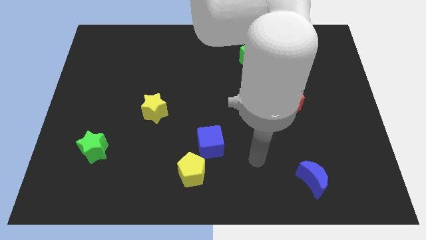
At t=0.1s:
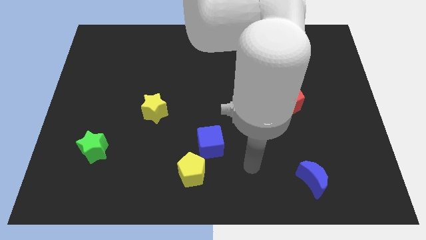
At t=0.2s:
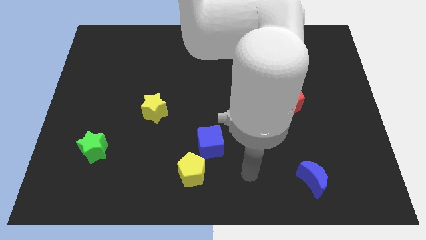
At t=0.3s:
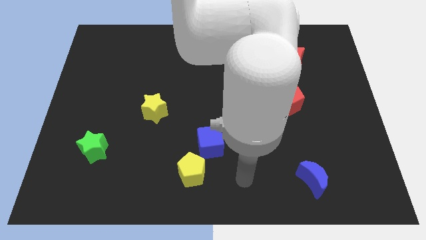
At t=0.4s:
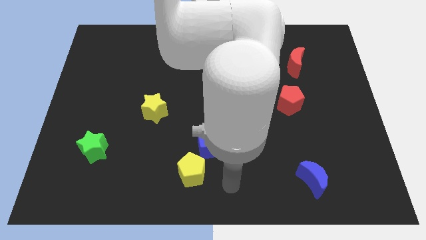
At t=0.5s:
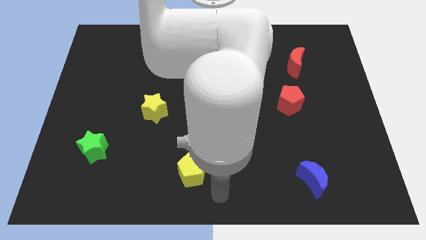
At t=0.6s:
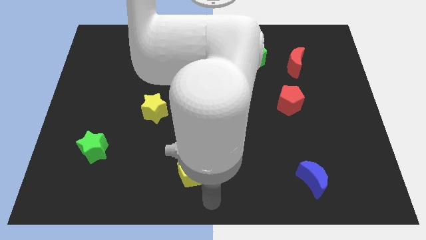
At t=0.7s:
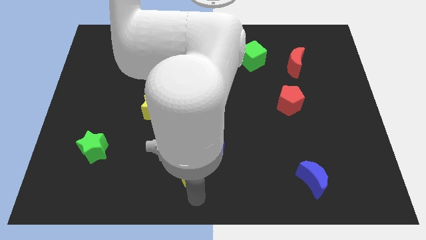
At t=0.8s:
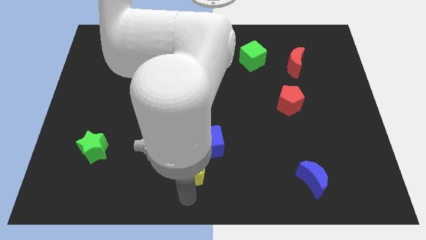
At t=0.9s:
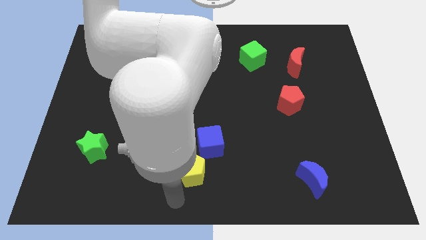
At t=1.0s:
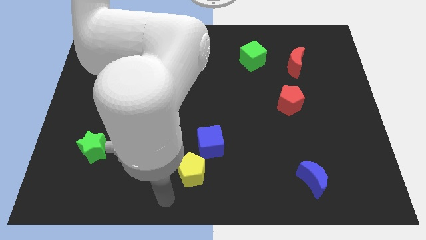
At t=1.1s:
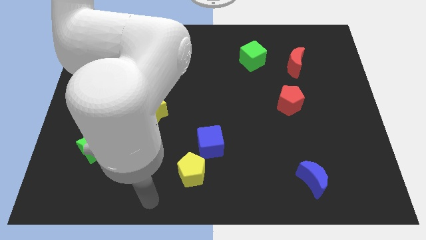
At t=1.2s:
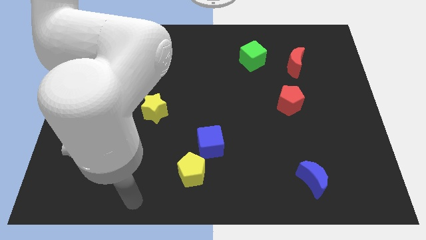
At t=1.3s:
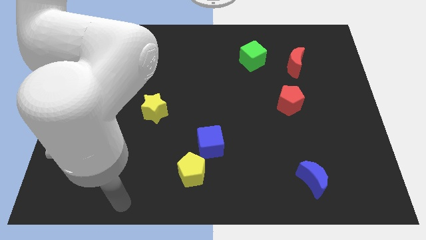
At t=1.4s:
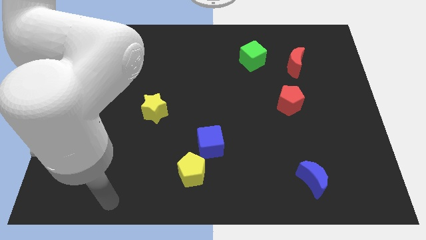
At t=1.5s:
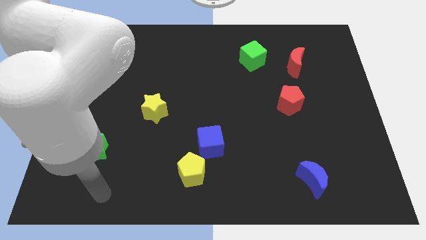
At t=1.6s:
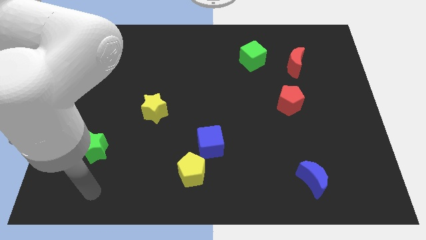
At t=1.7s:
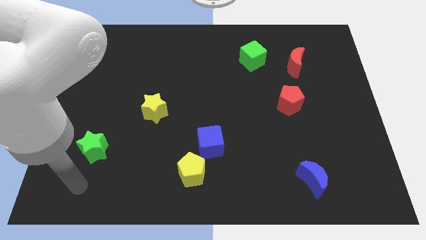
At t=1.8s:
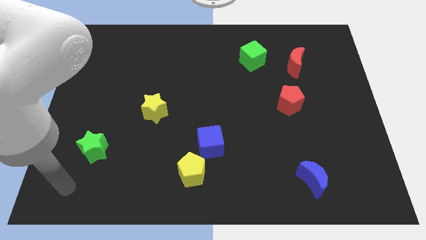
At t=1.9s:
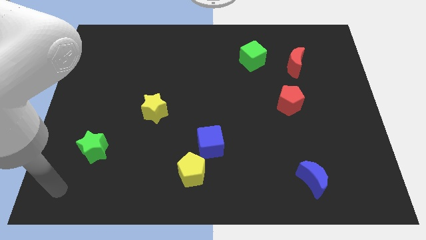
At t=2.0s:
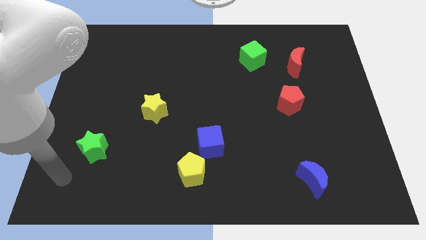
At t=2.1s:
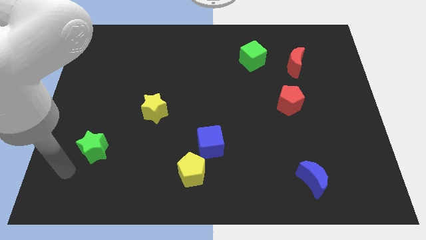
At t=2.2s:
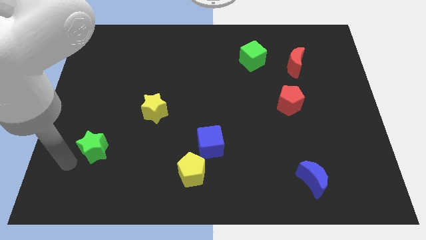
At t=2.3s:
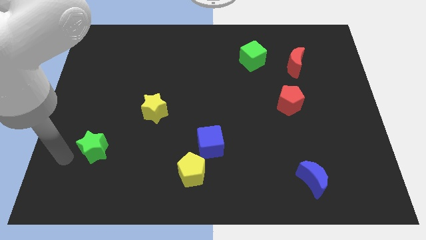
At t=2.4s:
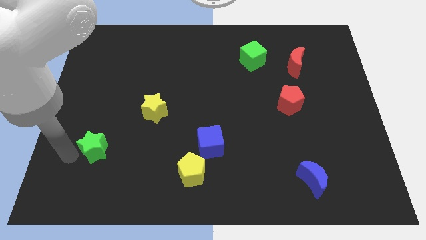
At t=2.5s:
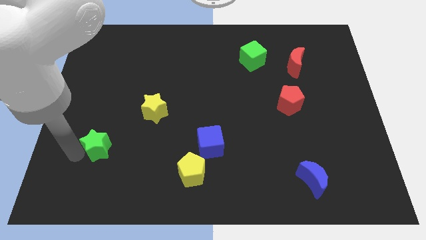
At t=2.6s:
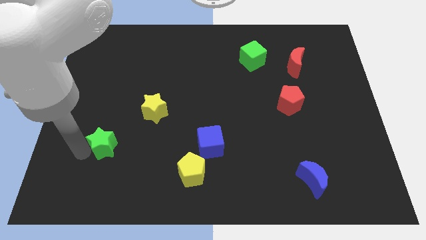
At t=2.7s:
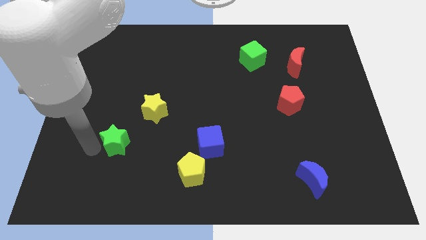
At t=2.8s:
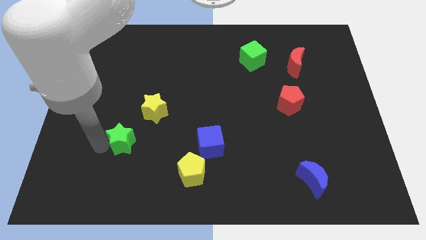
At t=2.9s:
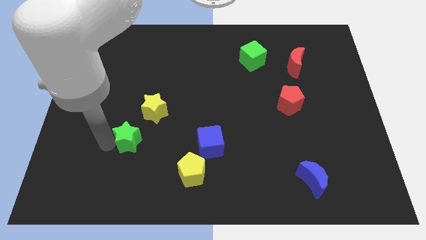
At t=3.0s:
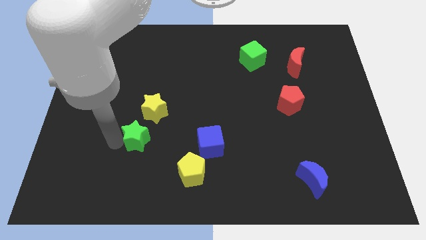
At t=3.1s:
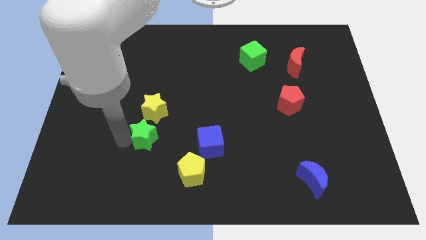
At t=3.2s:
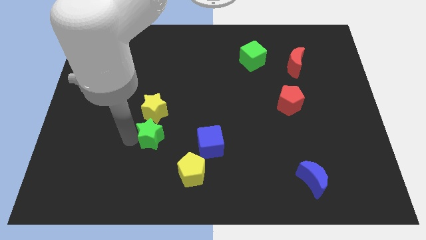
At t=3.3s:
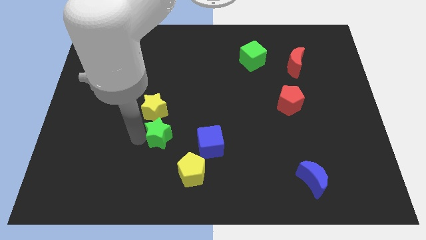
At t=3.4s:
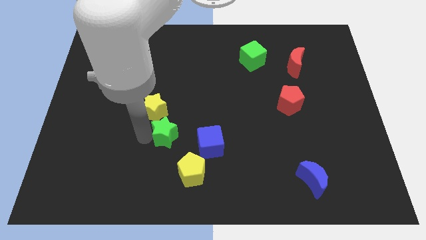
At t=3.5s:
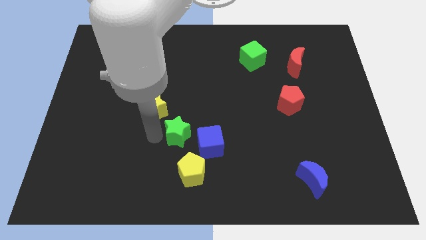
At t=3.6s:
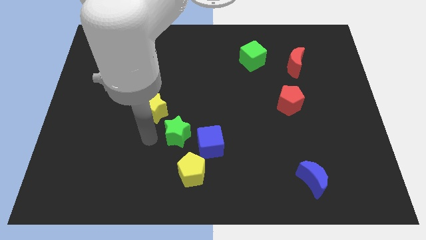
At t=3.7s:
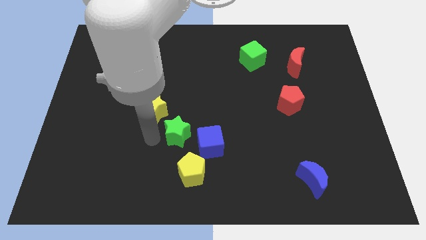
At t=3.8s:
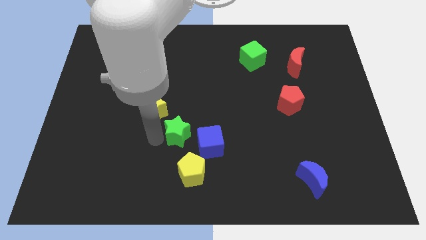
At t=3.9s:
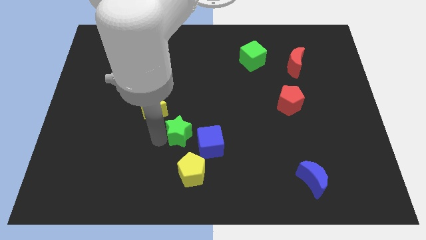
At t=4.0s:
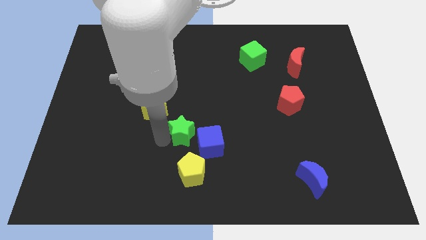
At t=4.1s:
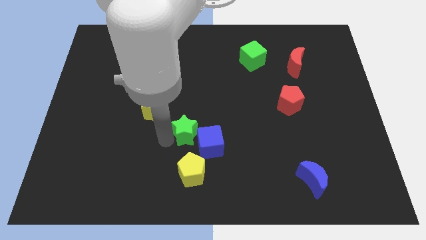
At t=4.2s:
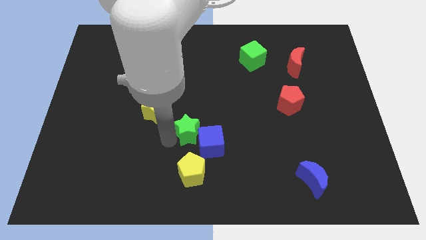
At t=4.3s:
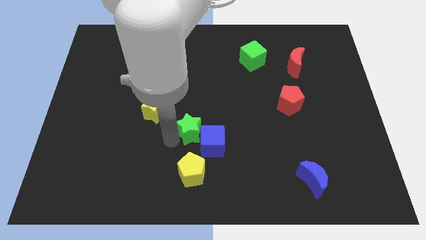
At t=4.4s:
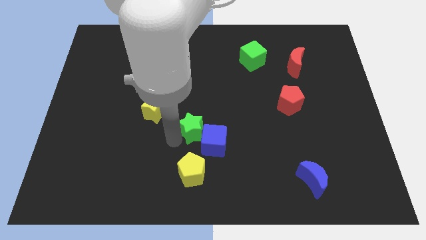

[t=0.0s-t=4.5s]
push the green star right

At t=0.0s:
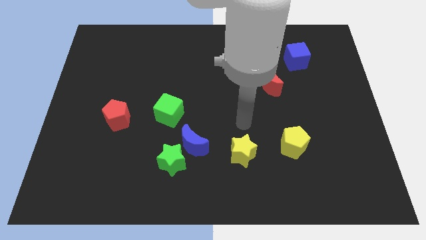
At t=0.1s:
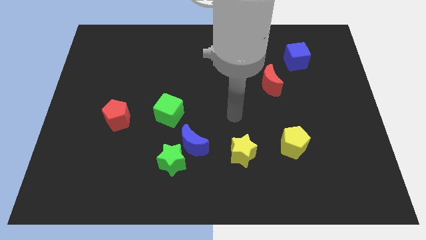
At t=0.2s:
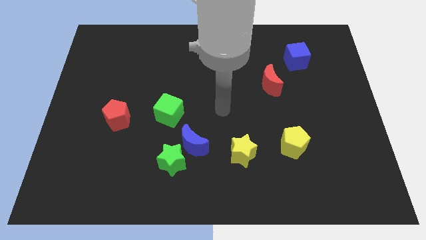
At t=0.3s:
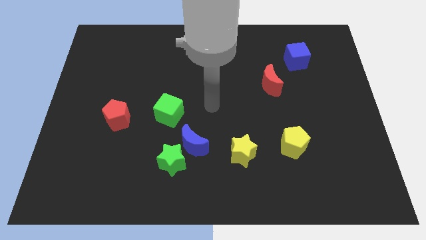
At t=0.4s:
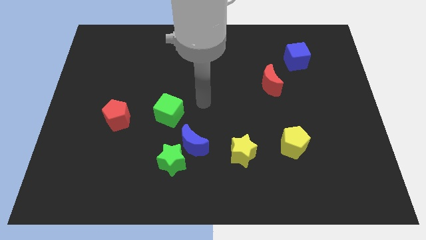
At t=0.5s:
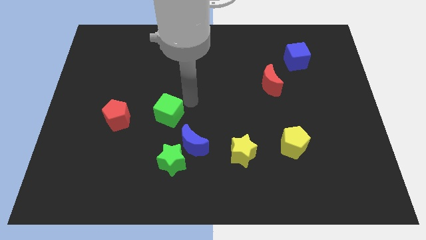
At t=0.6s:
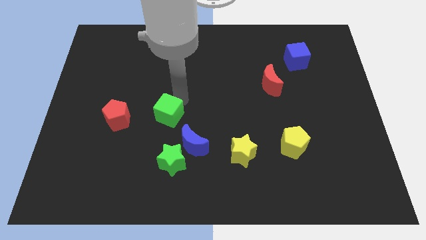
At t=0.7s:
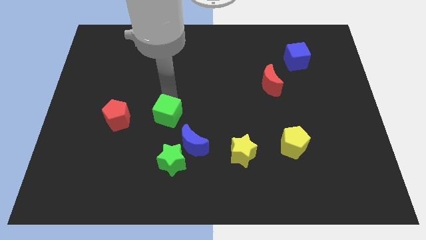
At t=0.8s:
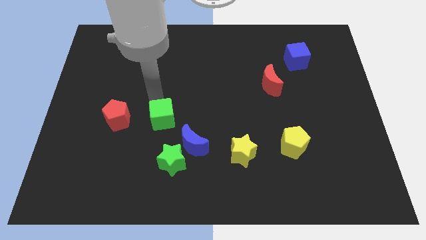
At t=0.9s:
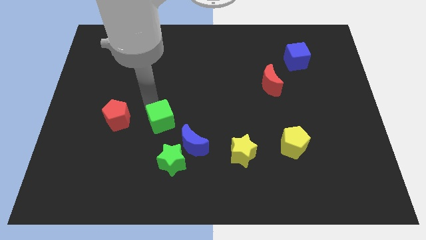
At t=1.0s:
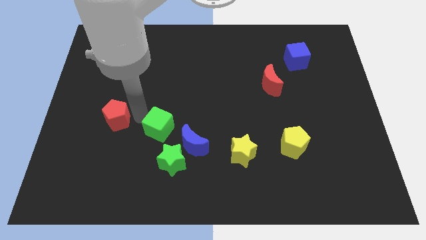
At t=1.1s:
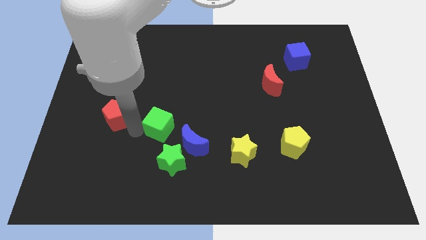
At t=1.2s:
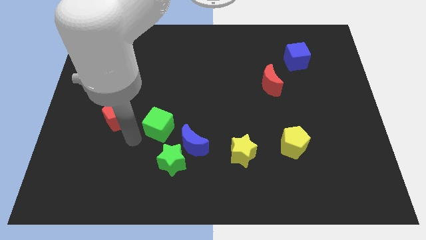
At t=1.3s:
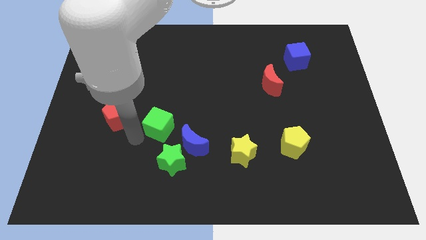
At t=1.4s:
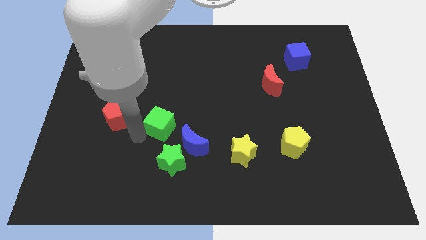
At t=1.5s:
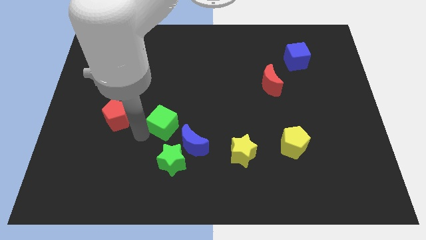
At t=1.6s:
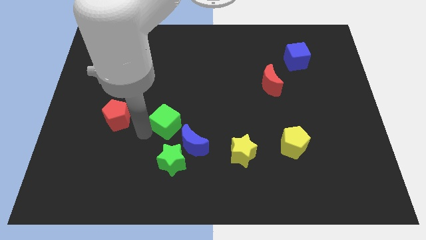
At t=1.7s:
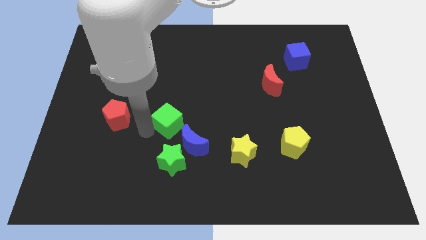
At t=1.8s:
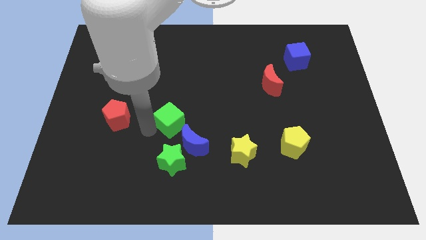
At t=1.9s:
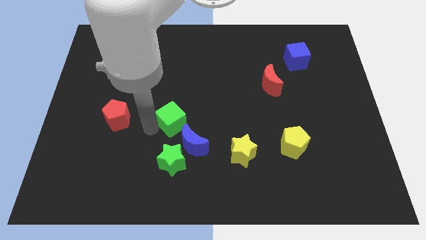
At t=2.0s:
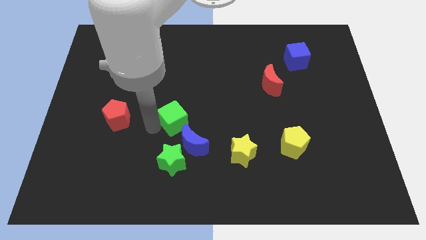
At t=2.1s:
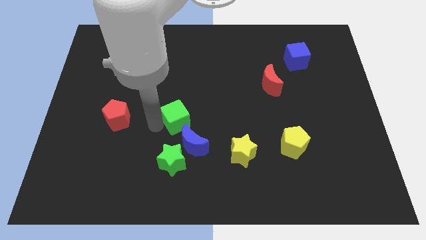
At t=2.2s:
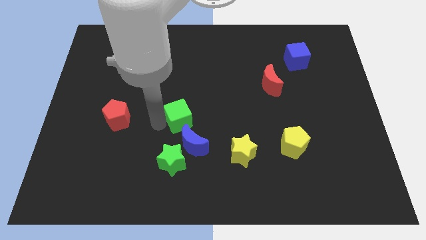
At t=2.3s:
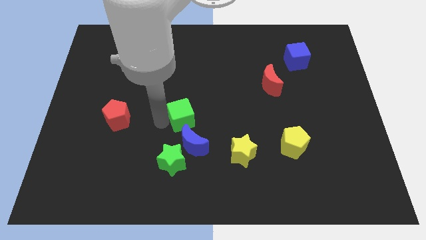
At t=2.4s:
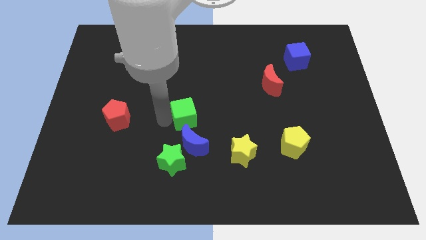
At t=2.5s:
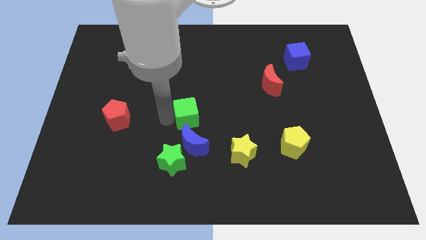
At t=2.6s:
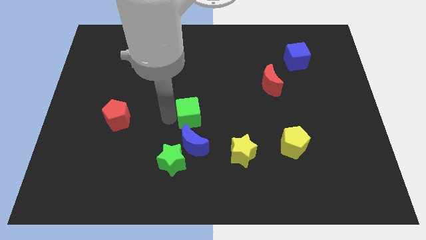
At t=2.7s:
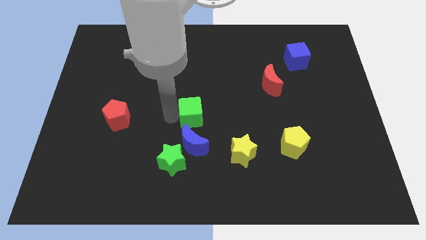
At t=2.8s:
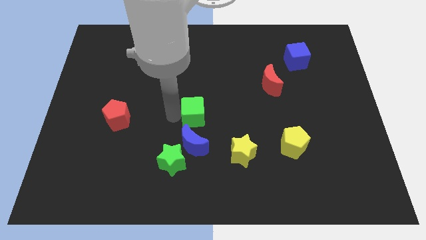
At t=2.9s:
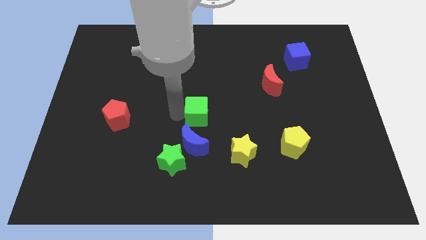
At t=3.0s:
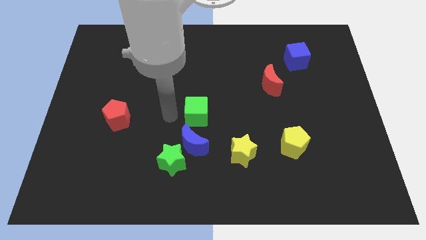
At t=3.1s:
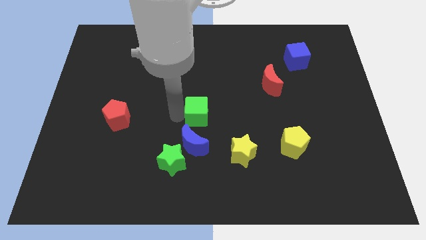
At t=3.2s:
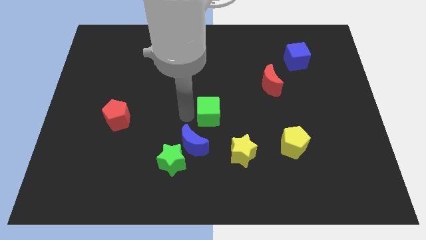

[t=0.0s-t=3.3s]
slide the green cube a bit right
